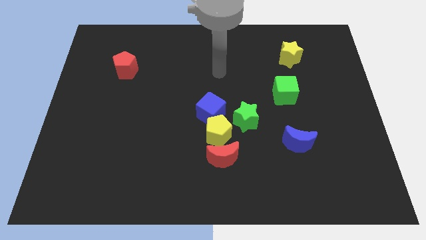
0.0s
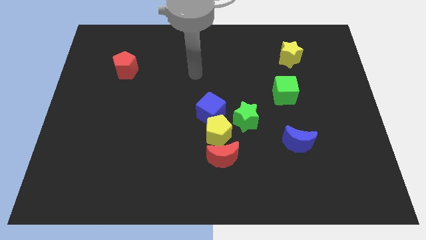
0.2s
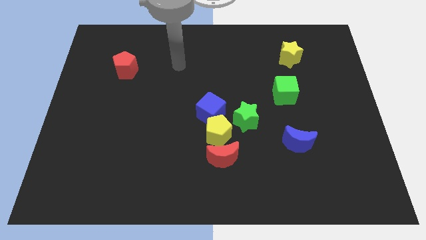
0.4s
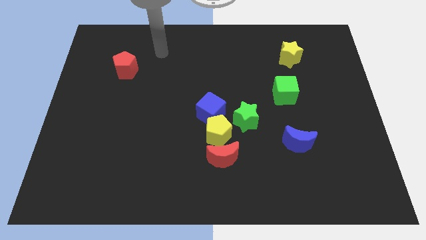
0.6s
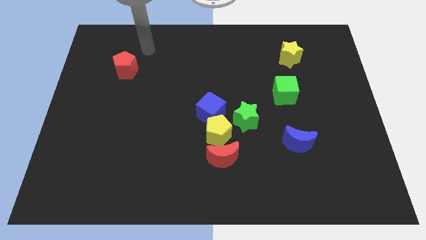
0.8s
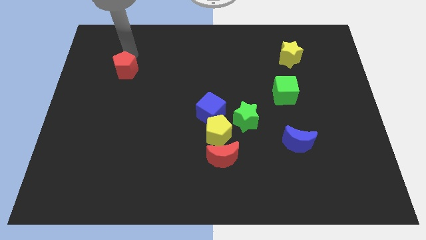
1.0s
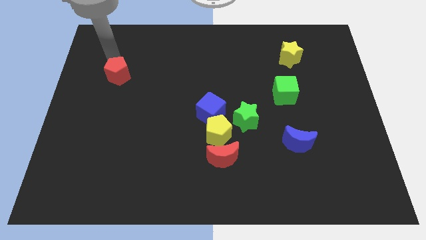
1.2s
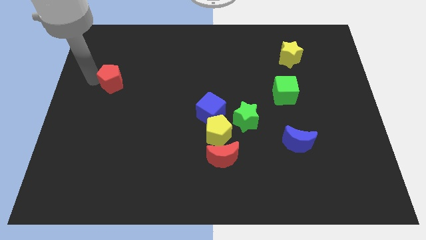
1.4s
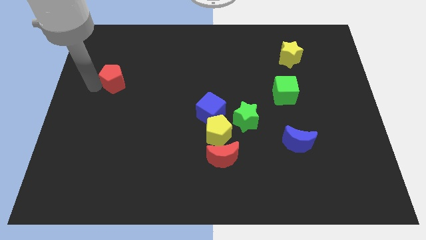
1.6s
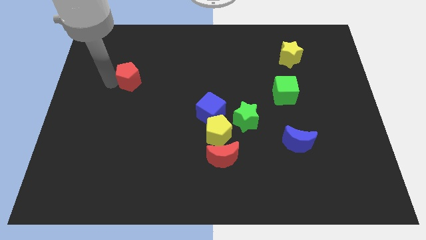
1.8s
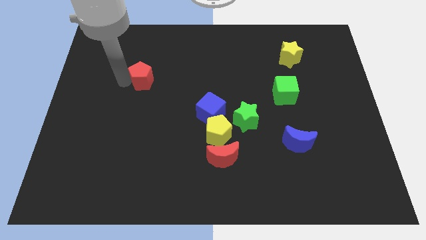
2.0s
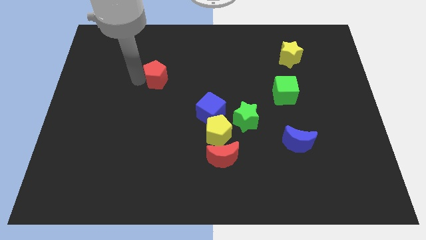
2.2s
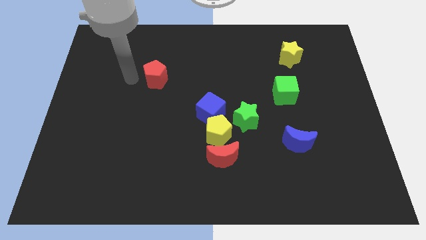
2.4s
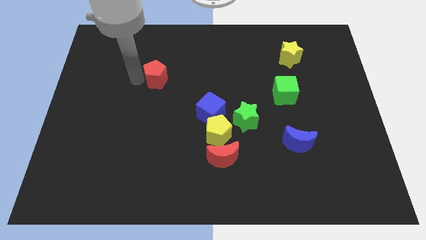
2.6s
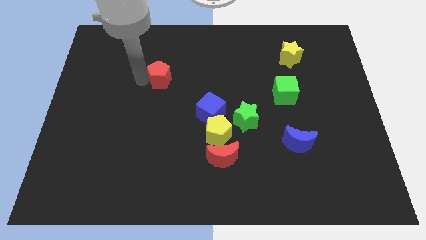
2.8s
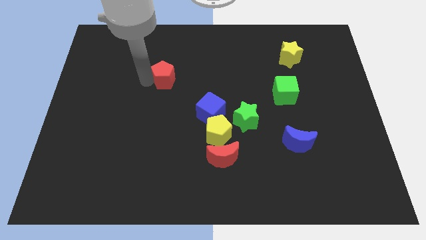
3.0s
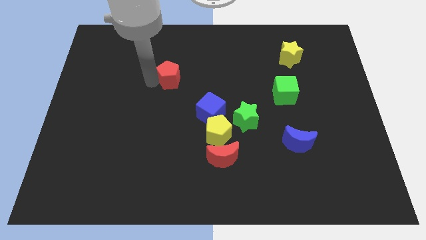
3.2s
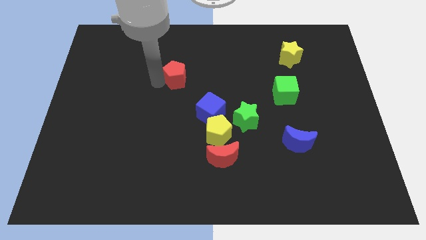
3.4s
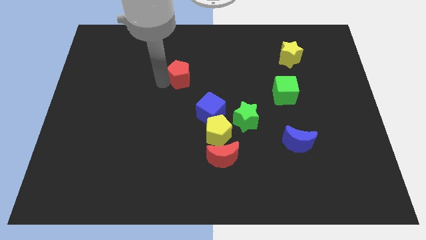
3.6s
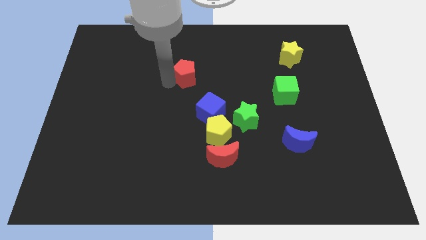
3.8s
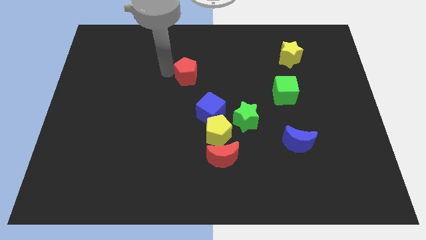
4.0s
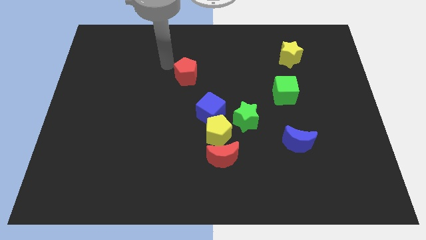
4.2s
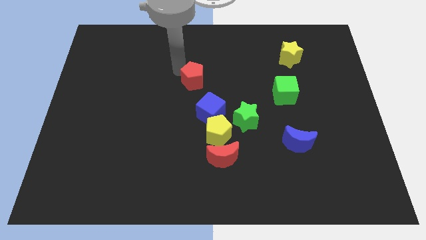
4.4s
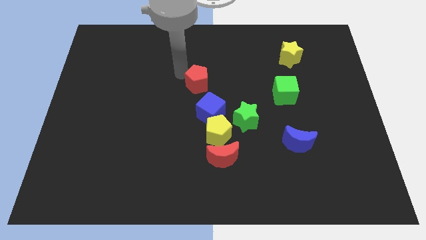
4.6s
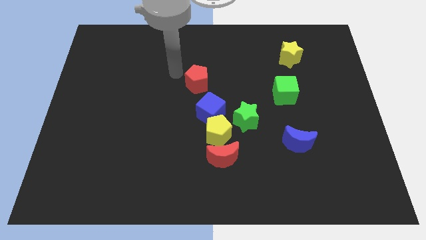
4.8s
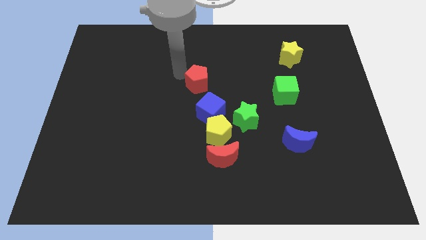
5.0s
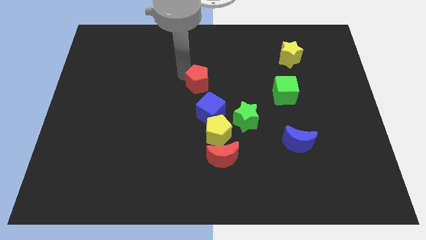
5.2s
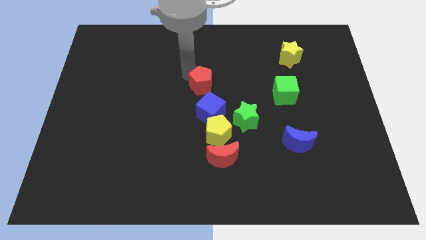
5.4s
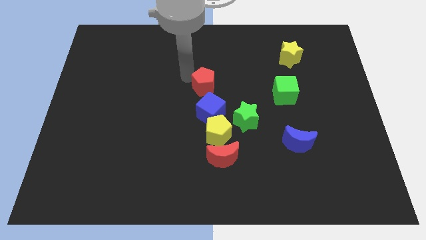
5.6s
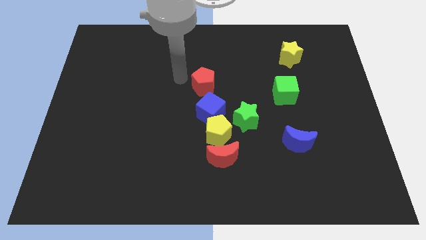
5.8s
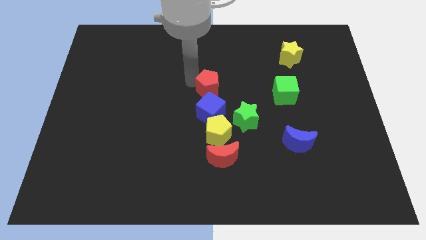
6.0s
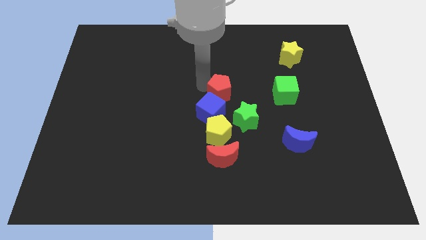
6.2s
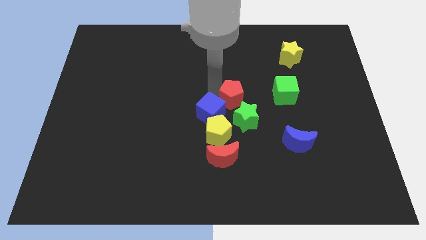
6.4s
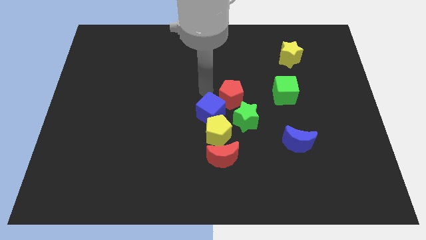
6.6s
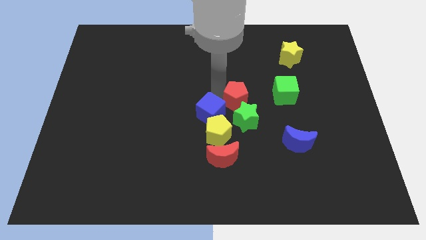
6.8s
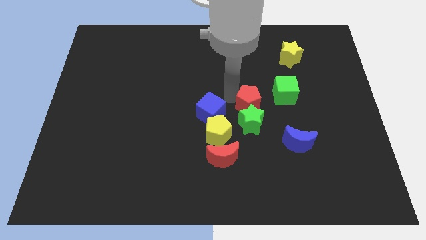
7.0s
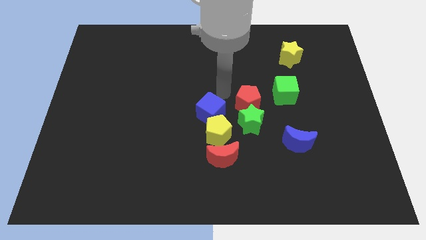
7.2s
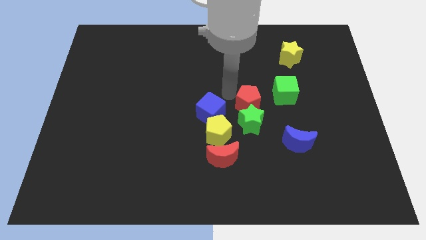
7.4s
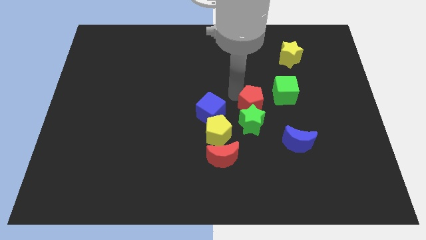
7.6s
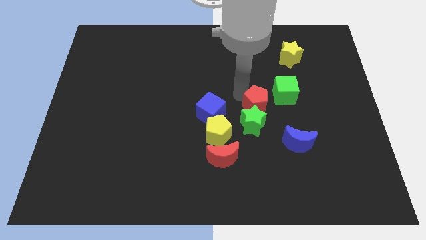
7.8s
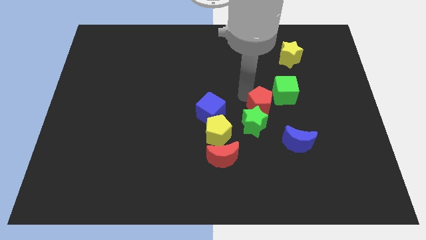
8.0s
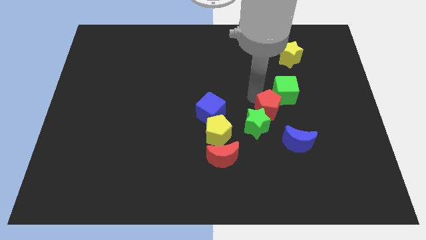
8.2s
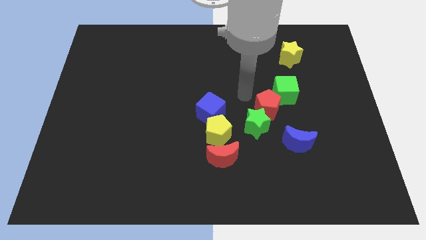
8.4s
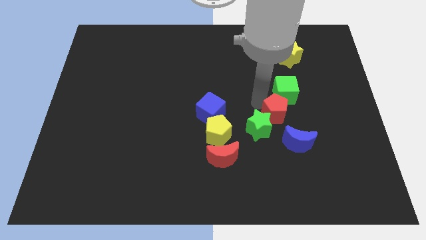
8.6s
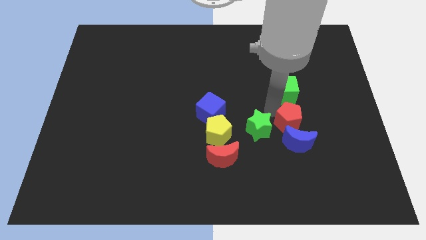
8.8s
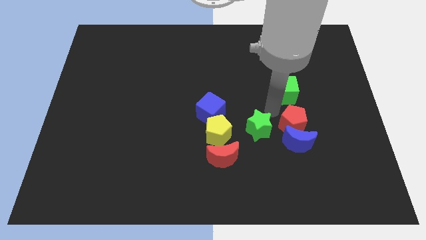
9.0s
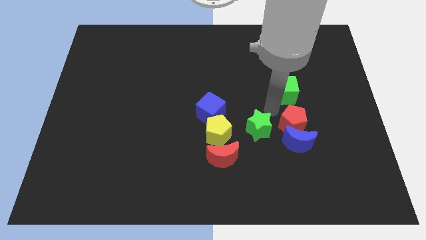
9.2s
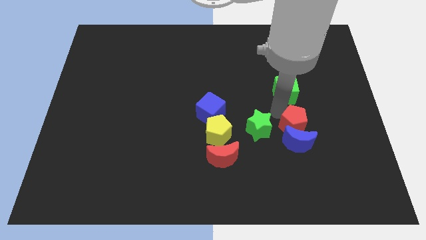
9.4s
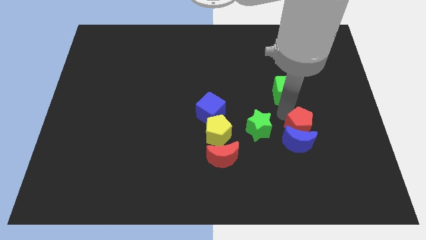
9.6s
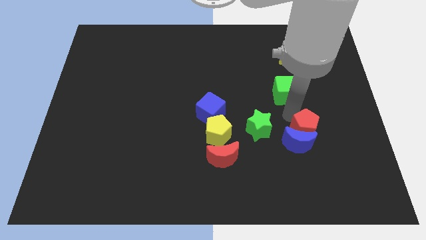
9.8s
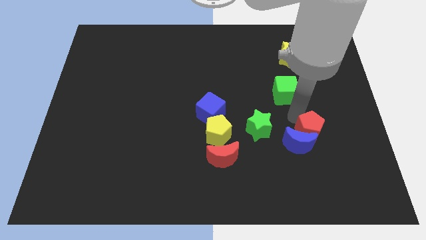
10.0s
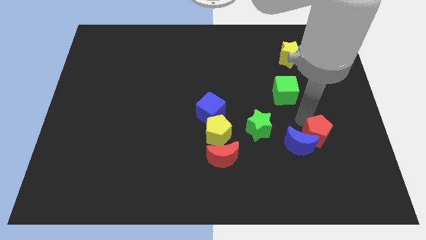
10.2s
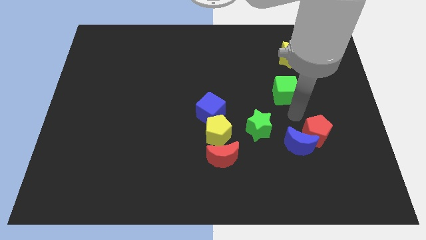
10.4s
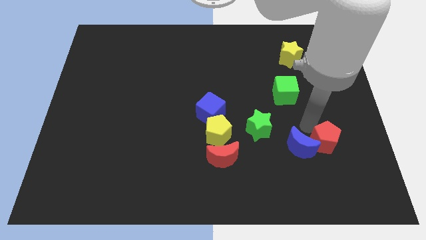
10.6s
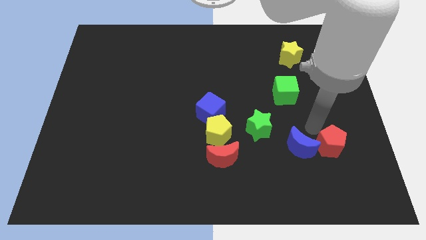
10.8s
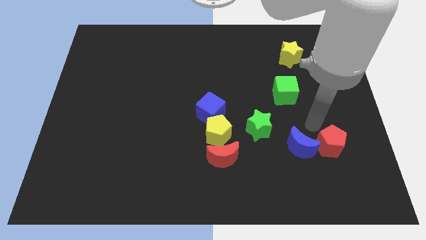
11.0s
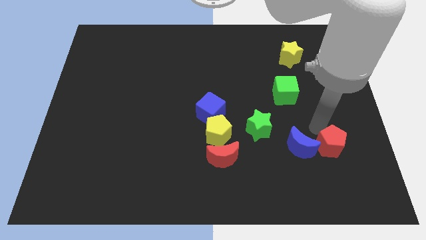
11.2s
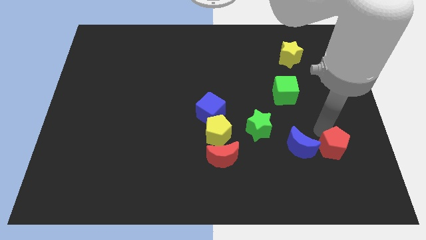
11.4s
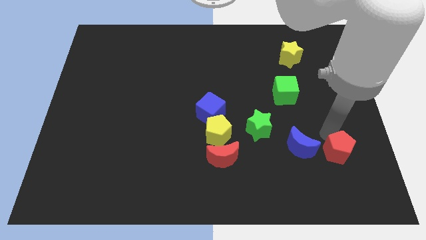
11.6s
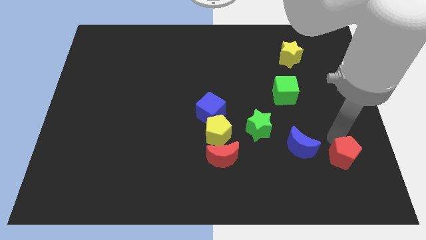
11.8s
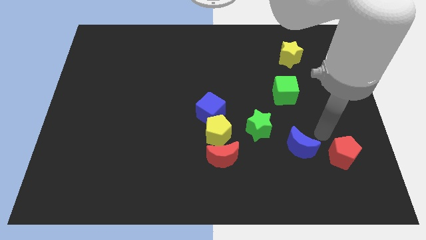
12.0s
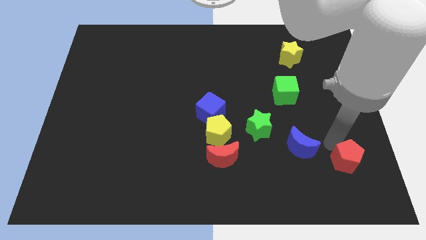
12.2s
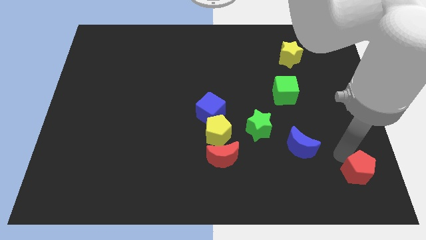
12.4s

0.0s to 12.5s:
push the red pentagon to the bottom right corner
